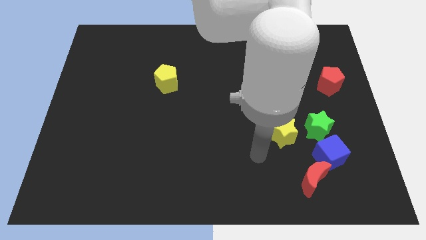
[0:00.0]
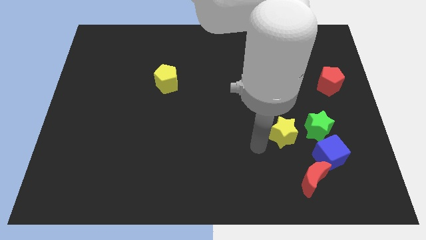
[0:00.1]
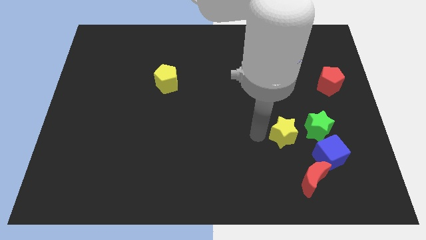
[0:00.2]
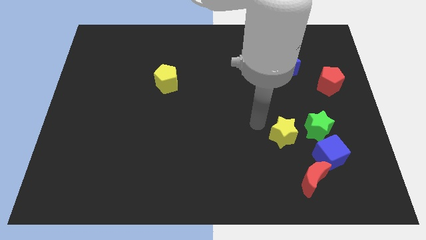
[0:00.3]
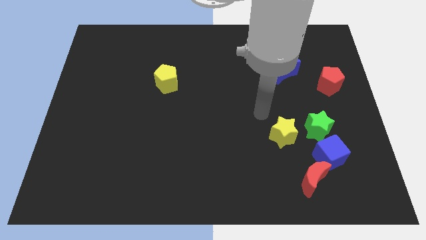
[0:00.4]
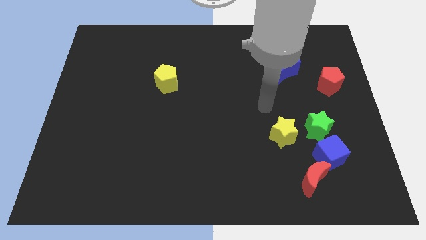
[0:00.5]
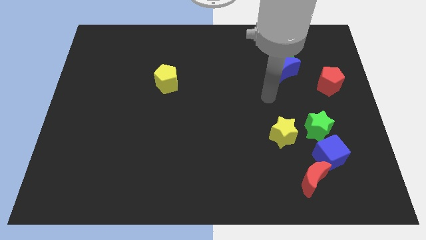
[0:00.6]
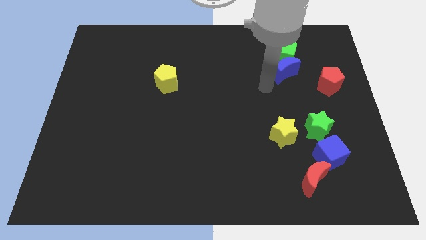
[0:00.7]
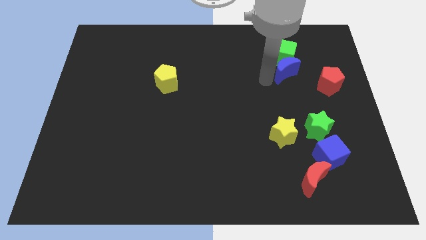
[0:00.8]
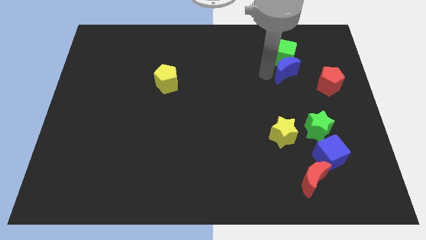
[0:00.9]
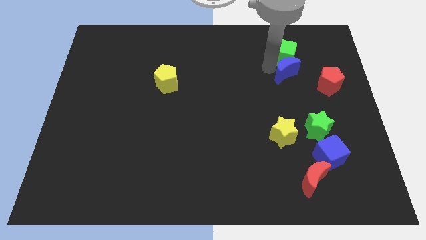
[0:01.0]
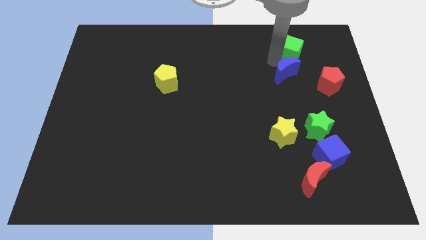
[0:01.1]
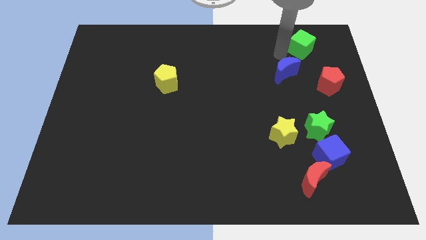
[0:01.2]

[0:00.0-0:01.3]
move the blue moon away from the green cube

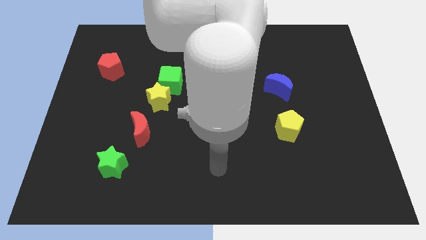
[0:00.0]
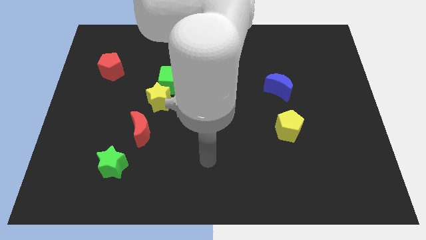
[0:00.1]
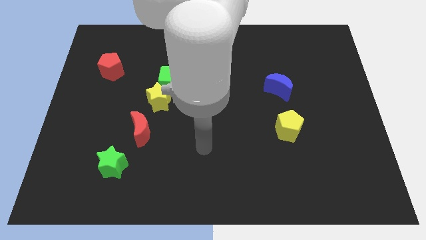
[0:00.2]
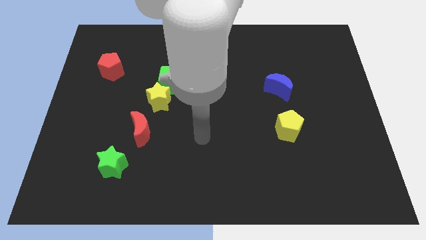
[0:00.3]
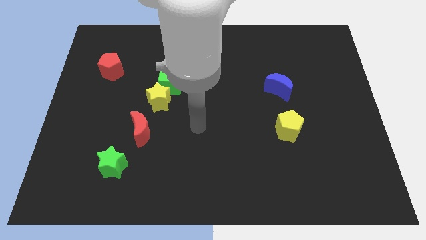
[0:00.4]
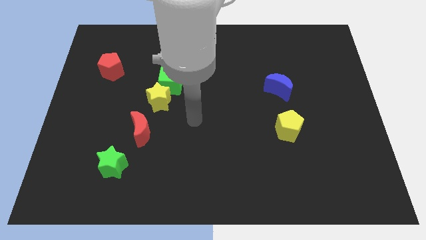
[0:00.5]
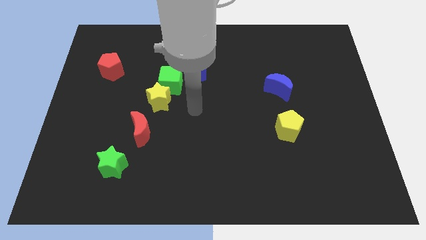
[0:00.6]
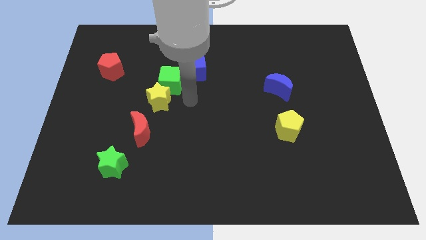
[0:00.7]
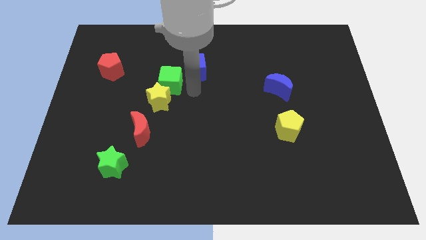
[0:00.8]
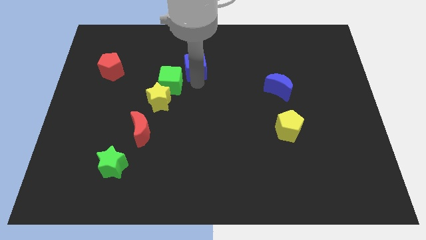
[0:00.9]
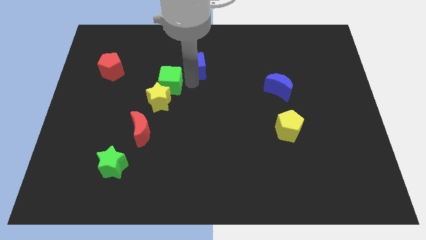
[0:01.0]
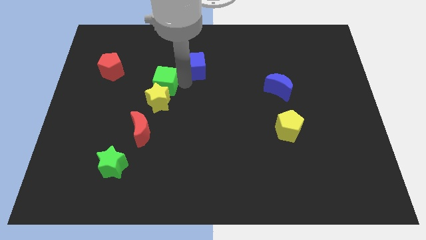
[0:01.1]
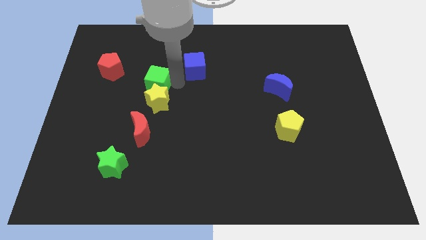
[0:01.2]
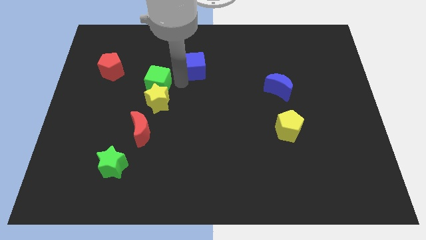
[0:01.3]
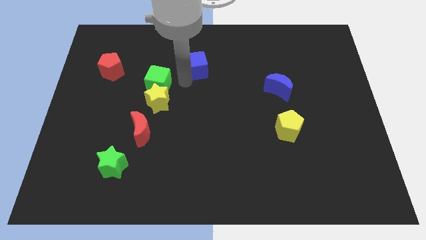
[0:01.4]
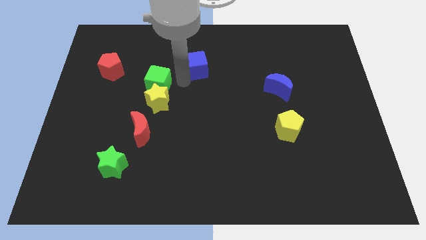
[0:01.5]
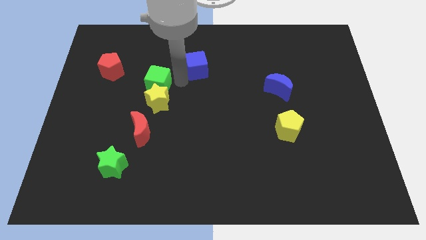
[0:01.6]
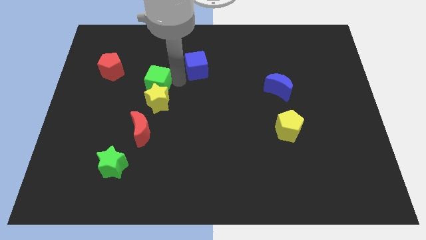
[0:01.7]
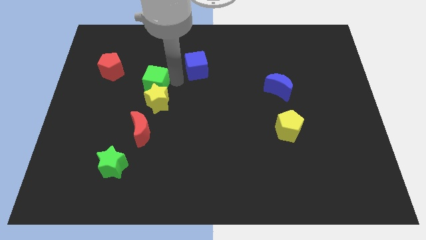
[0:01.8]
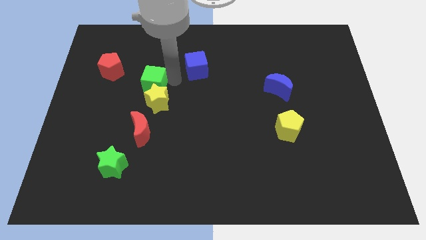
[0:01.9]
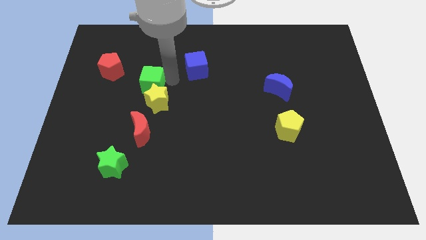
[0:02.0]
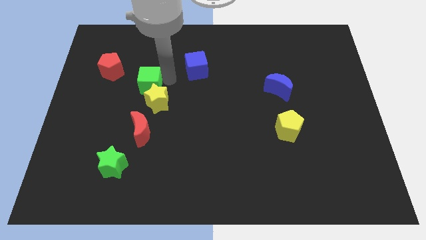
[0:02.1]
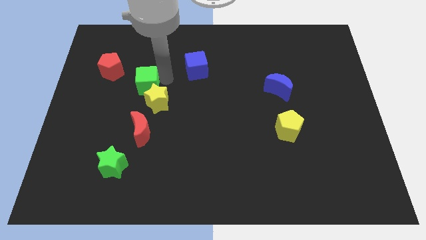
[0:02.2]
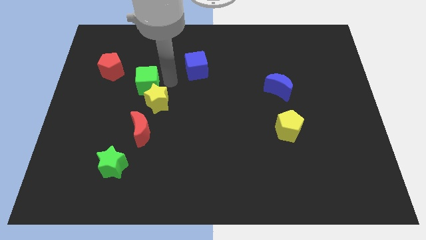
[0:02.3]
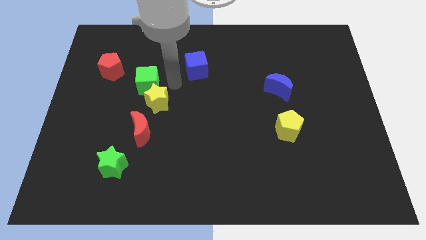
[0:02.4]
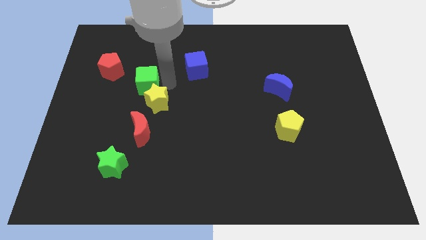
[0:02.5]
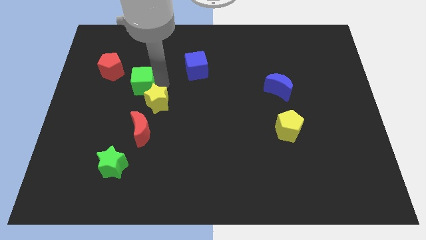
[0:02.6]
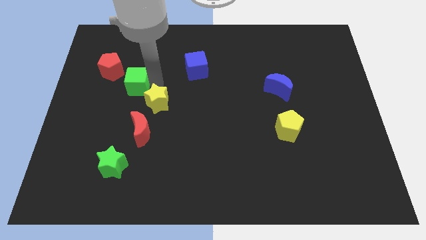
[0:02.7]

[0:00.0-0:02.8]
move the green cube away from the yellow star and blue cube

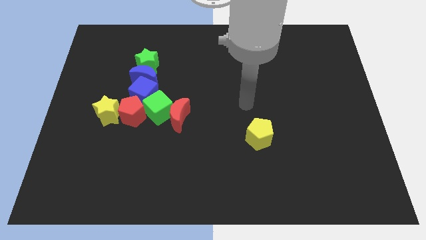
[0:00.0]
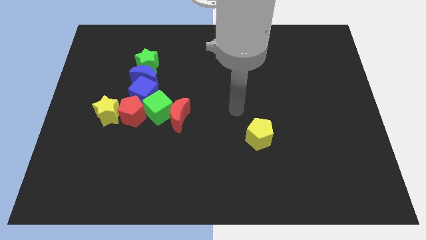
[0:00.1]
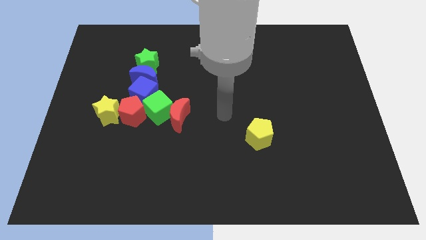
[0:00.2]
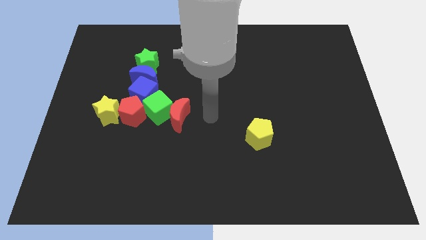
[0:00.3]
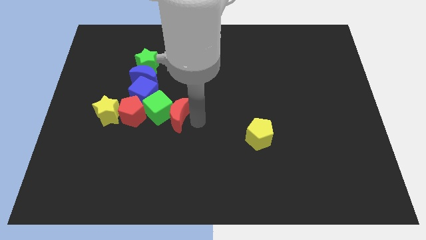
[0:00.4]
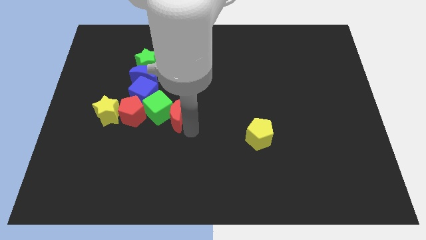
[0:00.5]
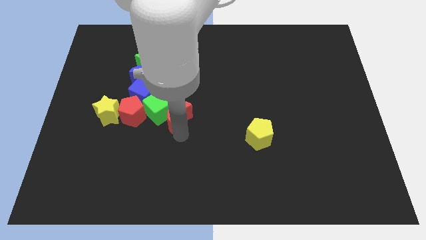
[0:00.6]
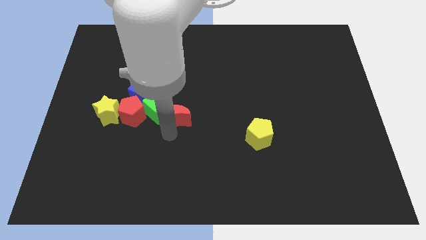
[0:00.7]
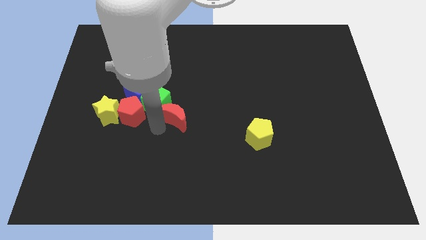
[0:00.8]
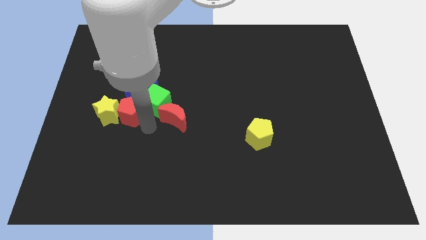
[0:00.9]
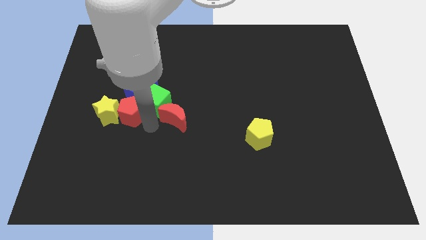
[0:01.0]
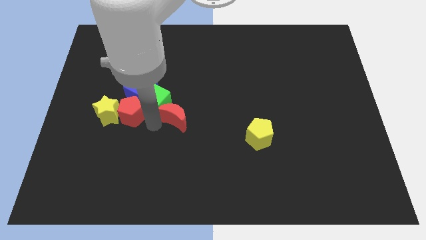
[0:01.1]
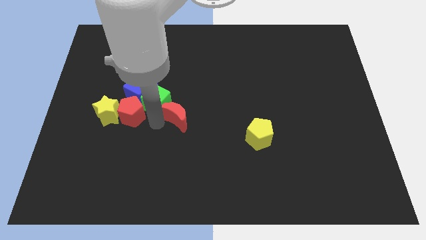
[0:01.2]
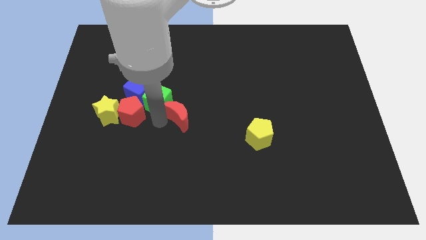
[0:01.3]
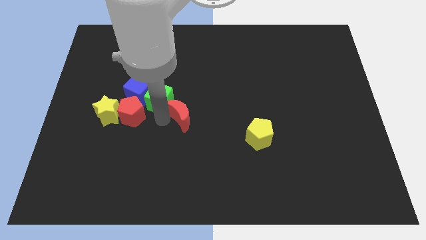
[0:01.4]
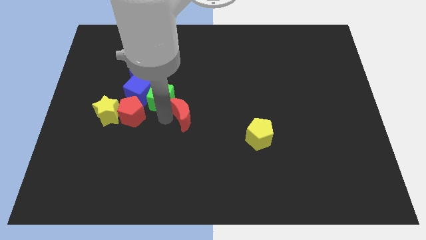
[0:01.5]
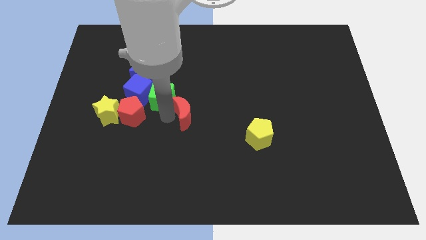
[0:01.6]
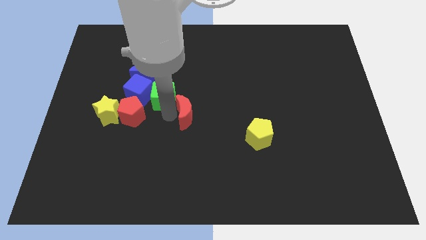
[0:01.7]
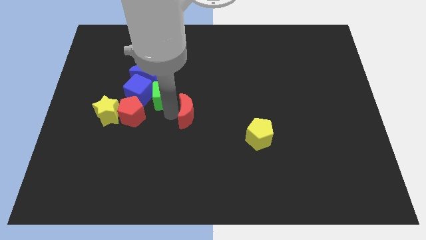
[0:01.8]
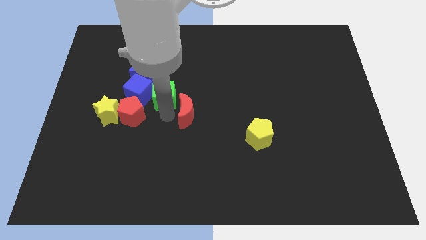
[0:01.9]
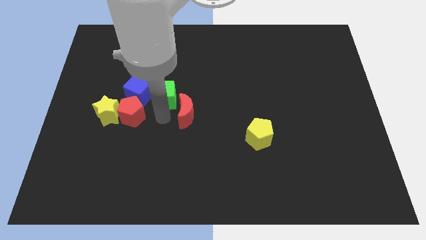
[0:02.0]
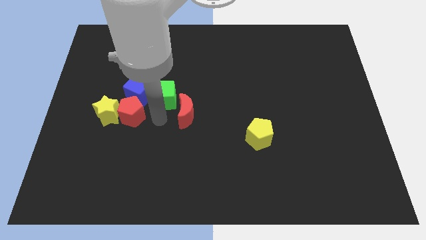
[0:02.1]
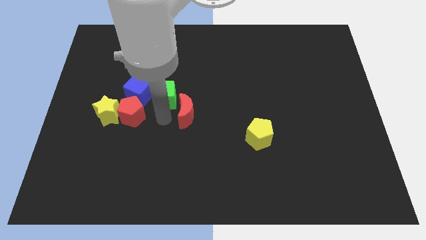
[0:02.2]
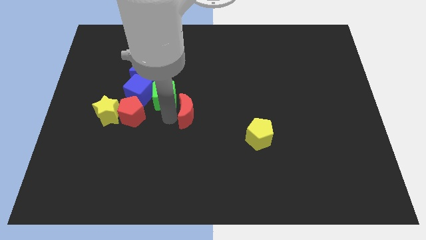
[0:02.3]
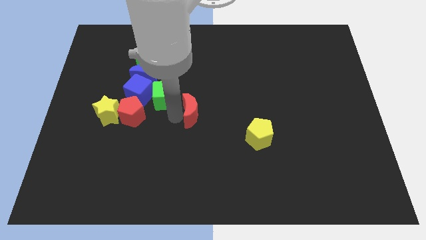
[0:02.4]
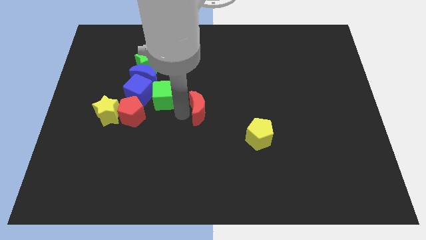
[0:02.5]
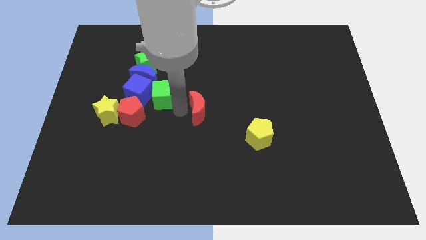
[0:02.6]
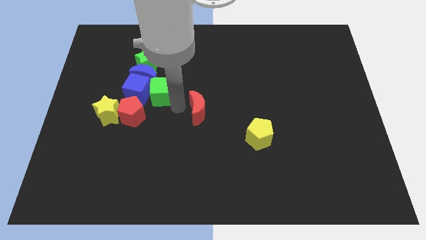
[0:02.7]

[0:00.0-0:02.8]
separate the red moon from the green cube

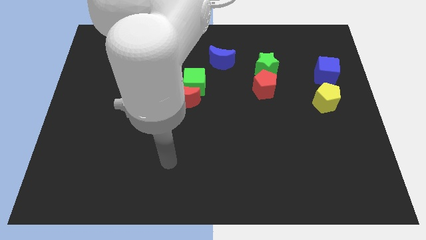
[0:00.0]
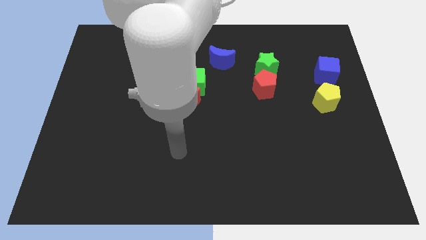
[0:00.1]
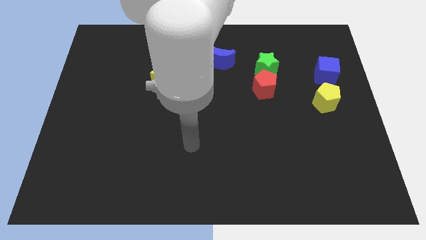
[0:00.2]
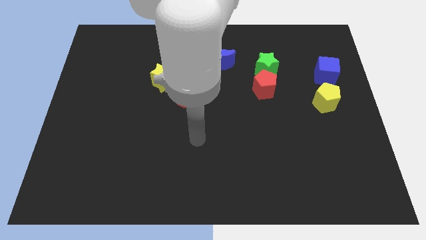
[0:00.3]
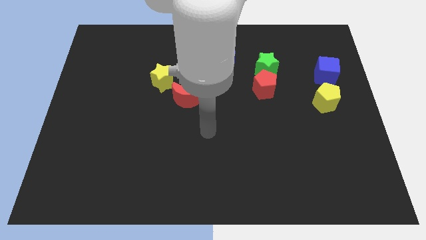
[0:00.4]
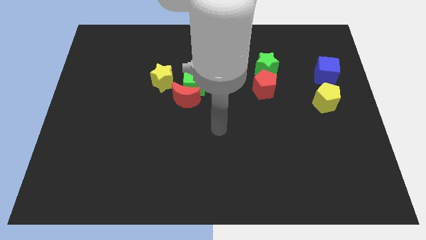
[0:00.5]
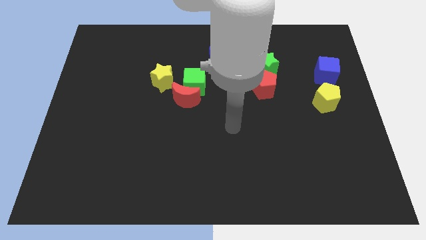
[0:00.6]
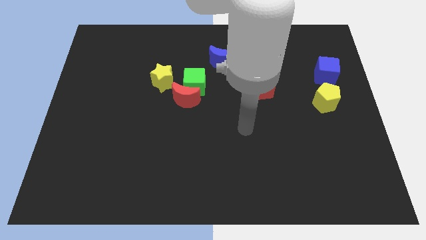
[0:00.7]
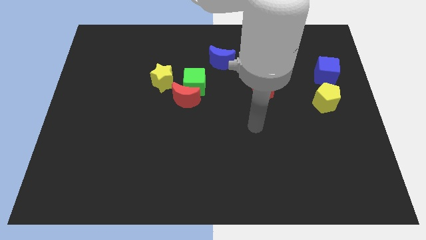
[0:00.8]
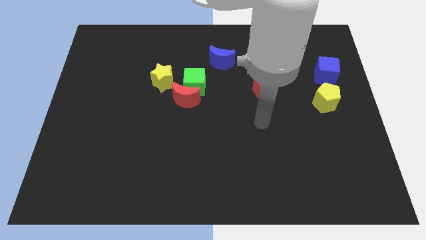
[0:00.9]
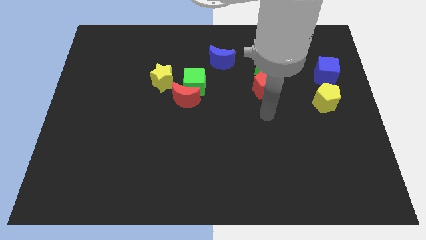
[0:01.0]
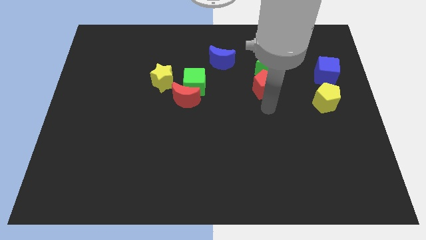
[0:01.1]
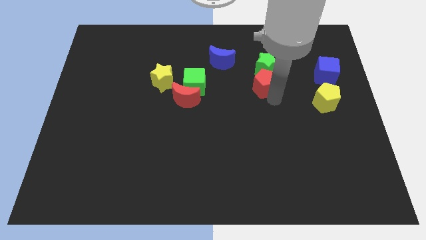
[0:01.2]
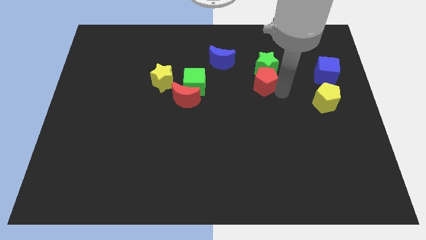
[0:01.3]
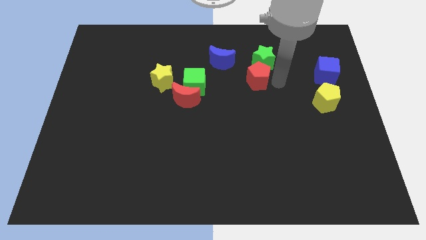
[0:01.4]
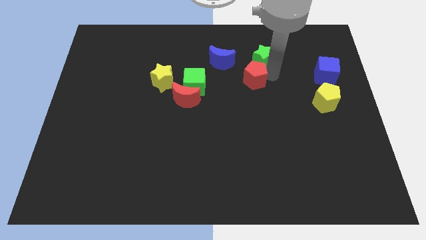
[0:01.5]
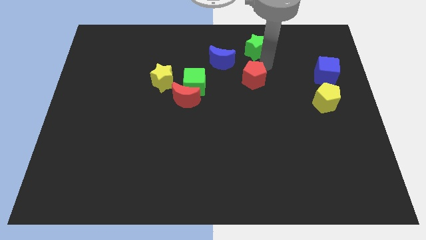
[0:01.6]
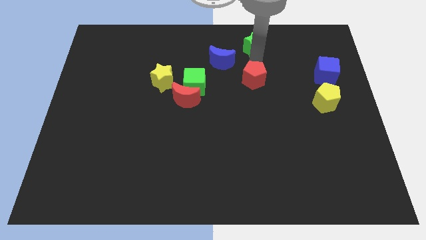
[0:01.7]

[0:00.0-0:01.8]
pull the red pentagon apart from the green star

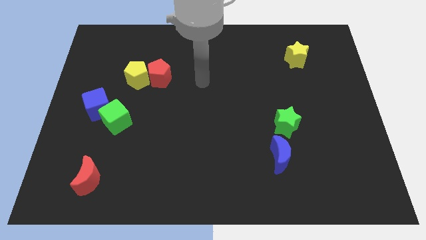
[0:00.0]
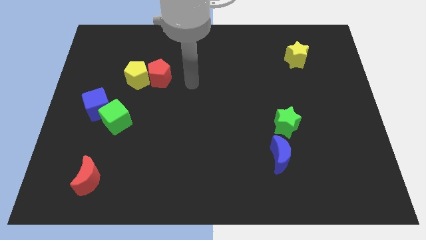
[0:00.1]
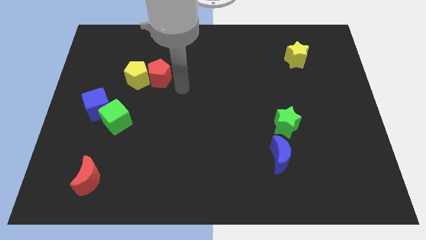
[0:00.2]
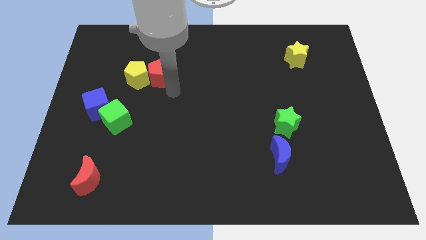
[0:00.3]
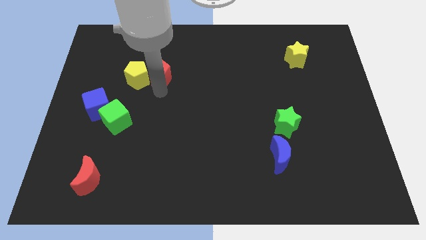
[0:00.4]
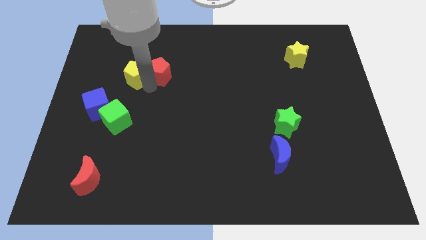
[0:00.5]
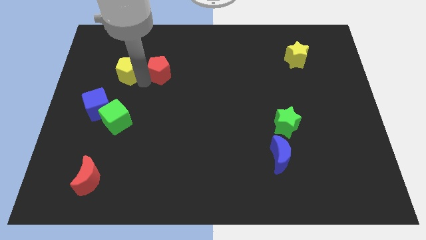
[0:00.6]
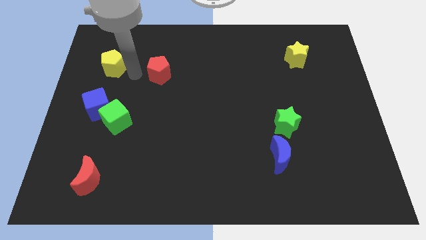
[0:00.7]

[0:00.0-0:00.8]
move the red pentagon away from the yellow pentagon

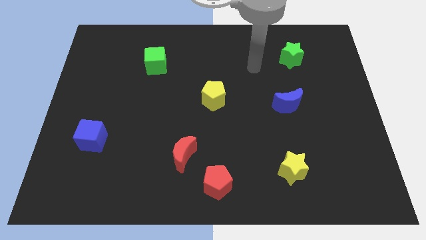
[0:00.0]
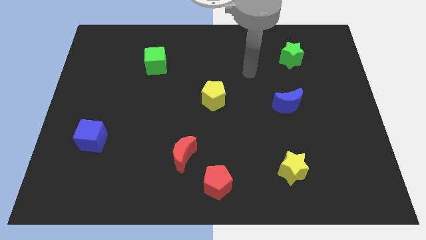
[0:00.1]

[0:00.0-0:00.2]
move the red moon away from the red pentagon
